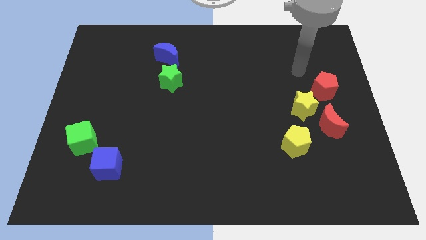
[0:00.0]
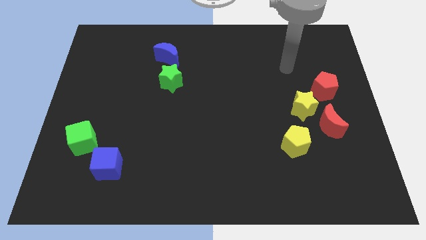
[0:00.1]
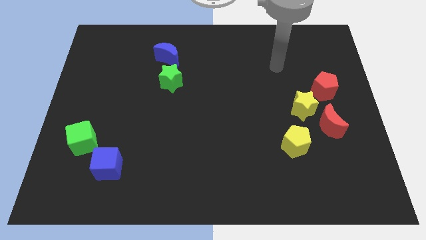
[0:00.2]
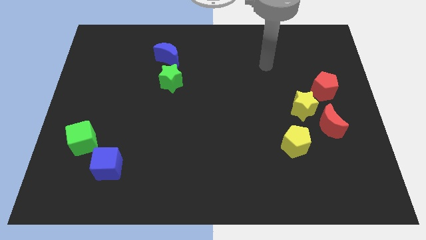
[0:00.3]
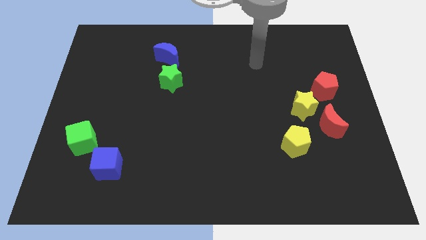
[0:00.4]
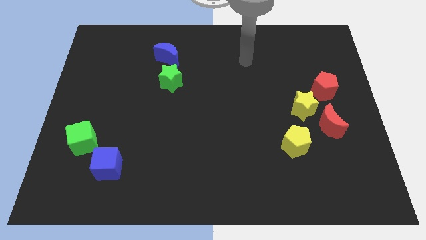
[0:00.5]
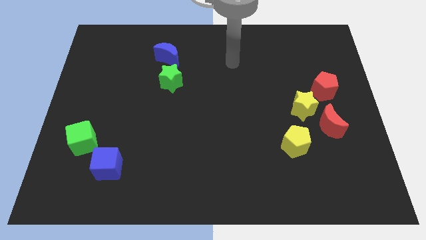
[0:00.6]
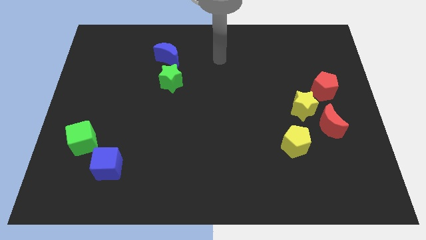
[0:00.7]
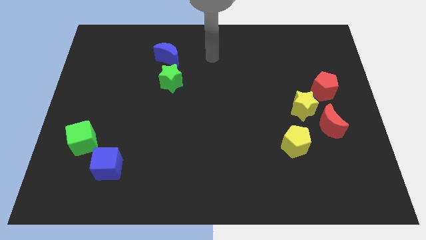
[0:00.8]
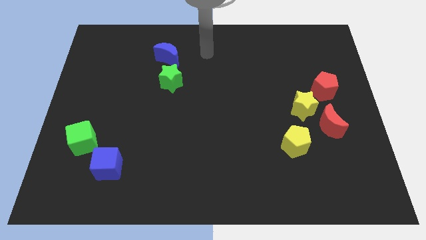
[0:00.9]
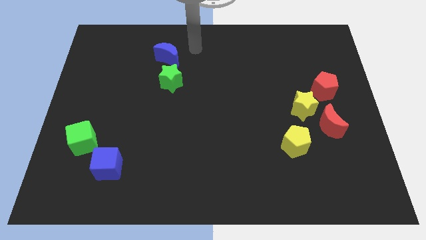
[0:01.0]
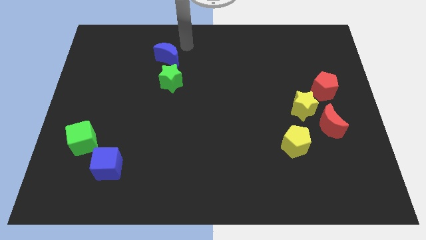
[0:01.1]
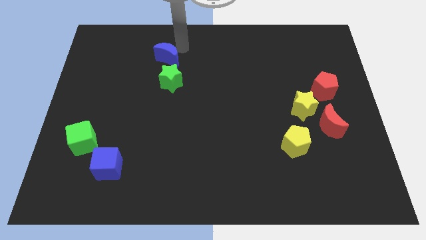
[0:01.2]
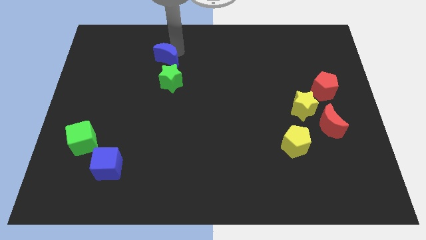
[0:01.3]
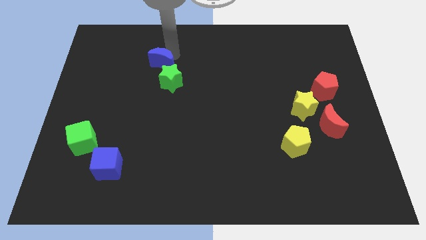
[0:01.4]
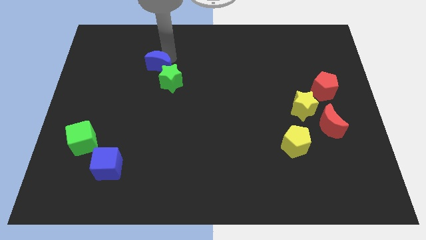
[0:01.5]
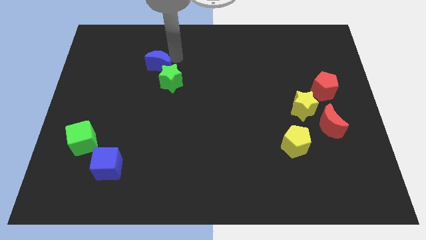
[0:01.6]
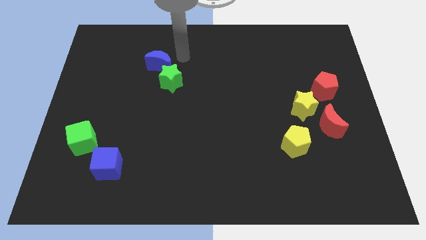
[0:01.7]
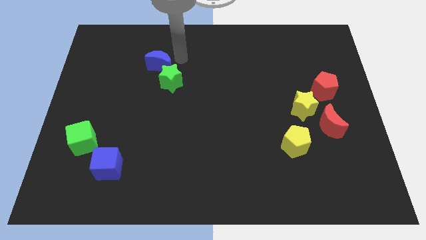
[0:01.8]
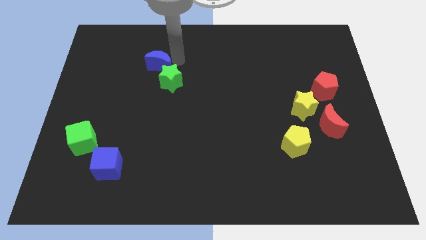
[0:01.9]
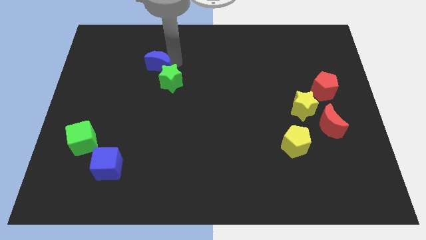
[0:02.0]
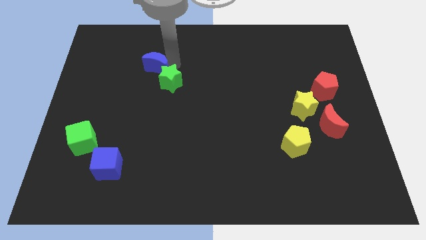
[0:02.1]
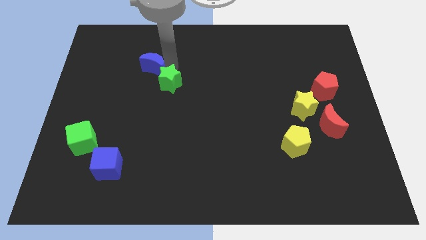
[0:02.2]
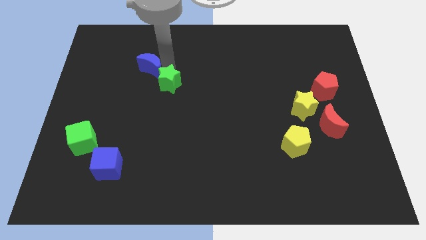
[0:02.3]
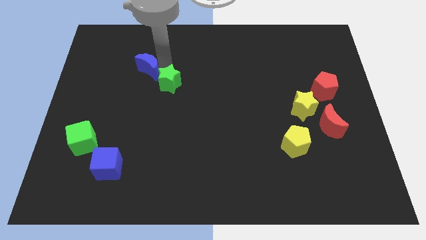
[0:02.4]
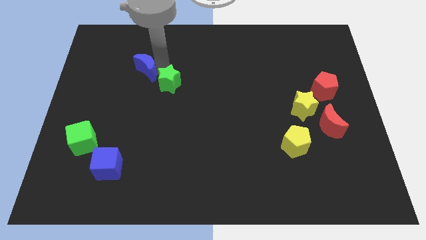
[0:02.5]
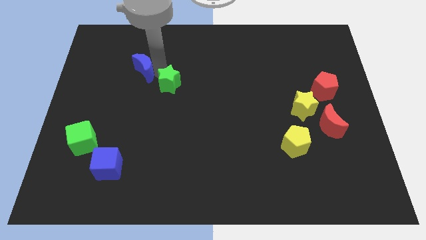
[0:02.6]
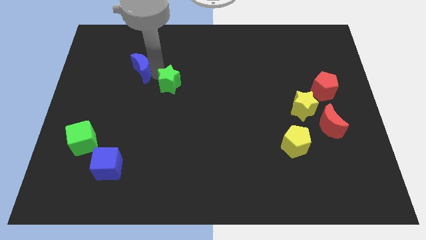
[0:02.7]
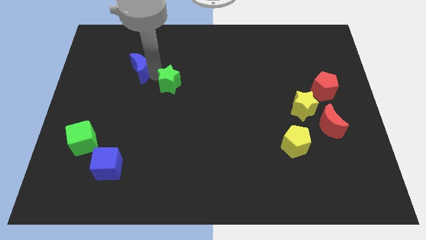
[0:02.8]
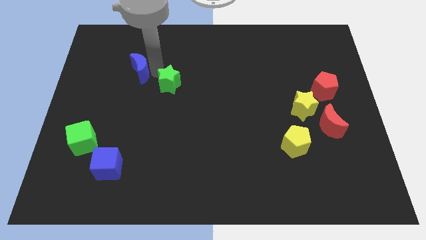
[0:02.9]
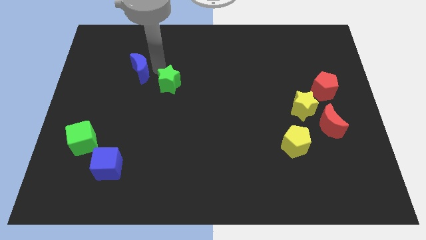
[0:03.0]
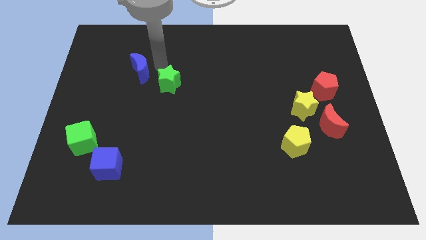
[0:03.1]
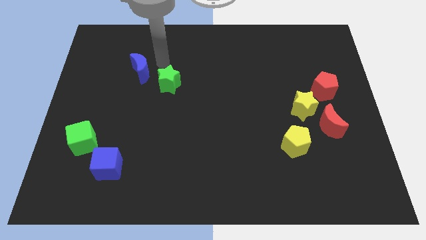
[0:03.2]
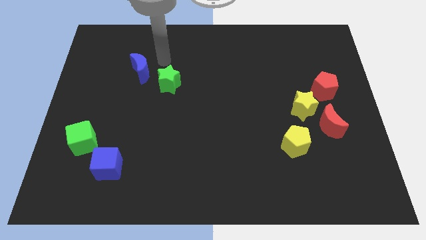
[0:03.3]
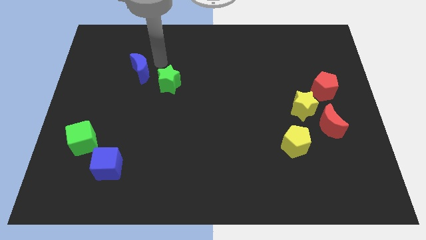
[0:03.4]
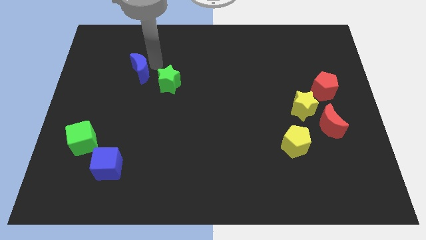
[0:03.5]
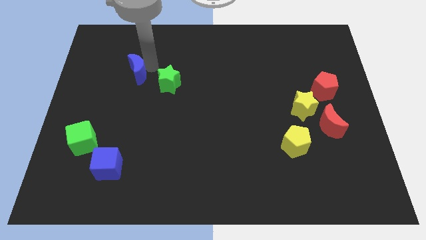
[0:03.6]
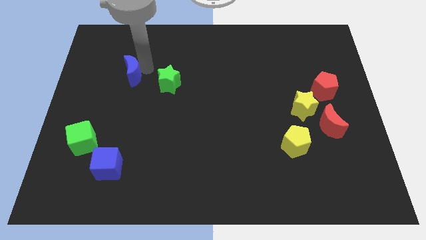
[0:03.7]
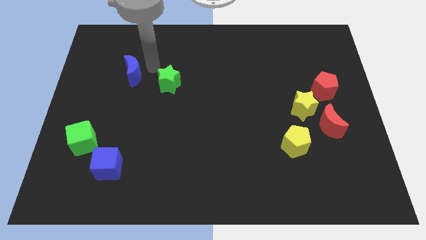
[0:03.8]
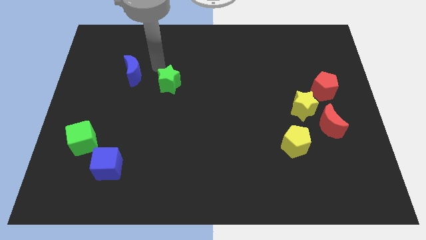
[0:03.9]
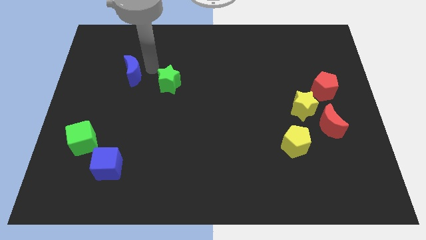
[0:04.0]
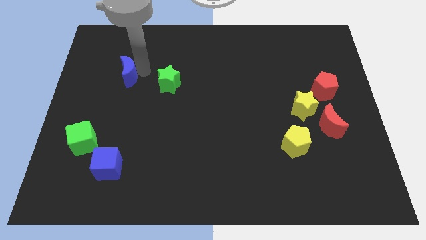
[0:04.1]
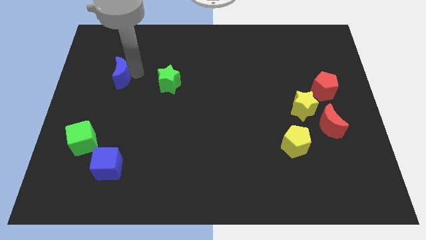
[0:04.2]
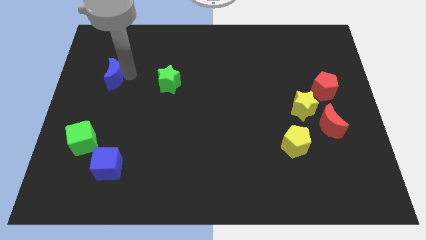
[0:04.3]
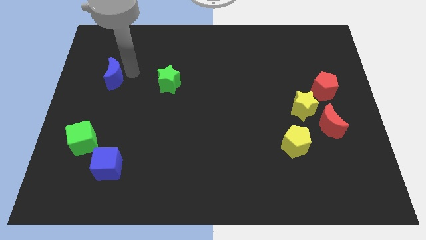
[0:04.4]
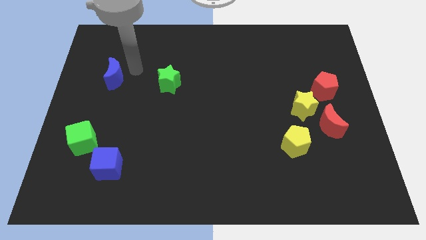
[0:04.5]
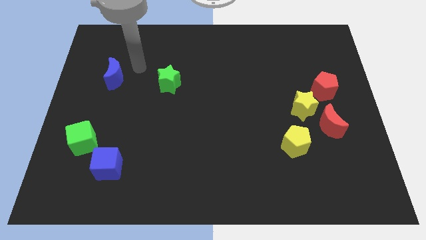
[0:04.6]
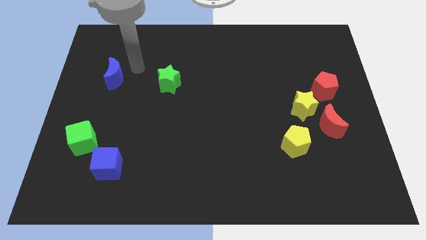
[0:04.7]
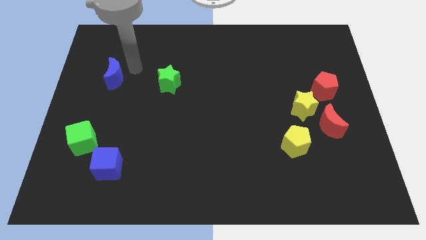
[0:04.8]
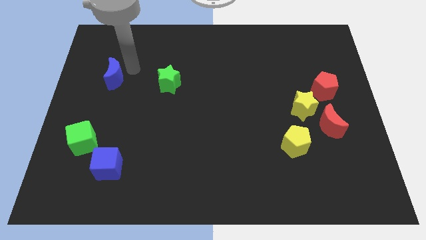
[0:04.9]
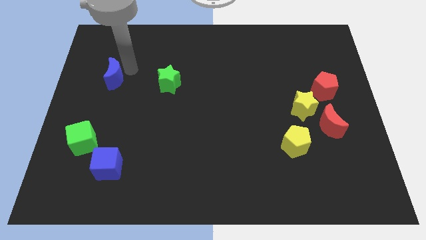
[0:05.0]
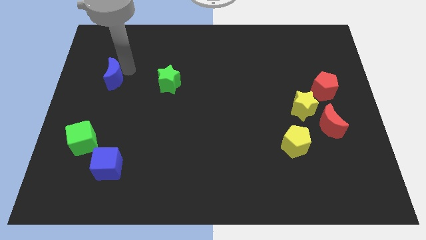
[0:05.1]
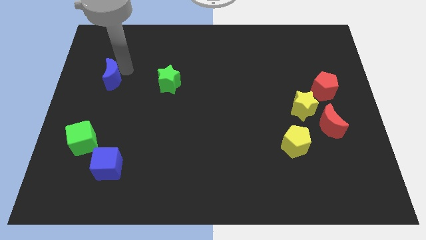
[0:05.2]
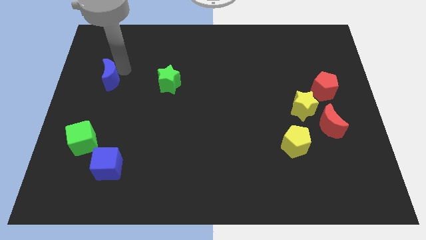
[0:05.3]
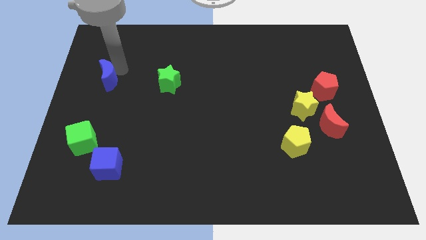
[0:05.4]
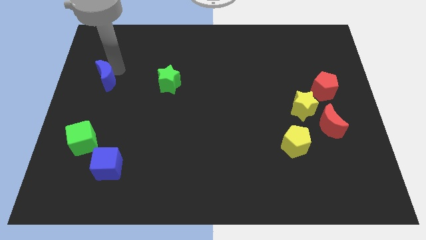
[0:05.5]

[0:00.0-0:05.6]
put the blue moon to the left side of the board

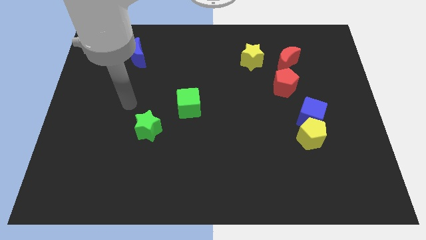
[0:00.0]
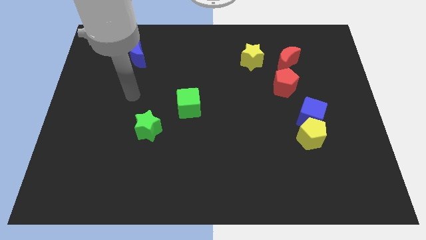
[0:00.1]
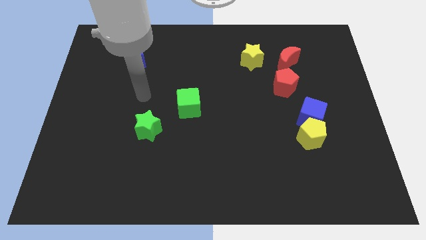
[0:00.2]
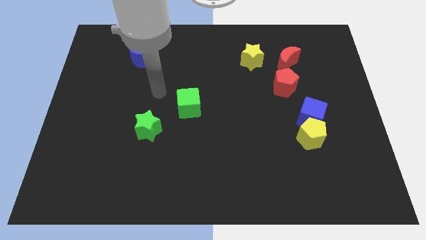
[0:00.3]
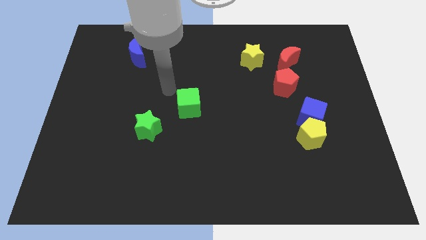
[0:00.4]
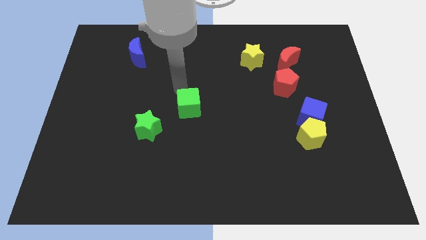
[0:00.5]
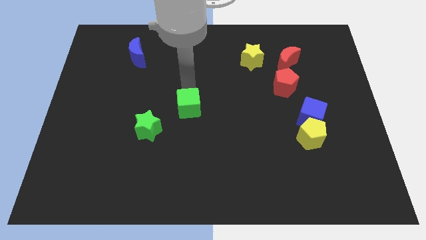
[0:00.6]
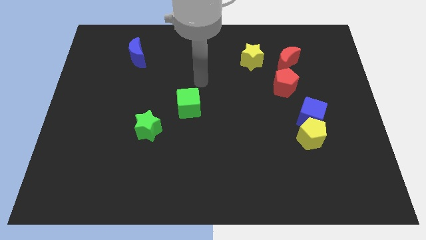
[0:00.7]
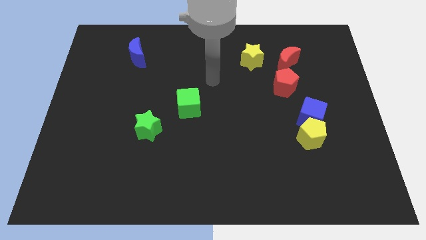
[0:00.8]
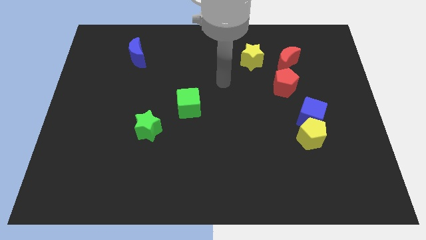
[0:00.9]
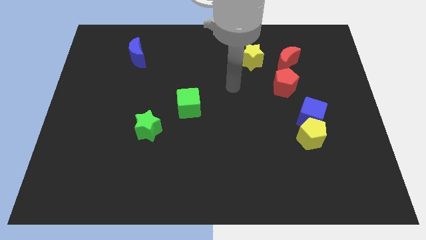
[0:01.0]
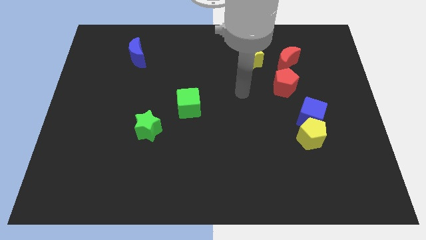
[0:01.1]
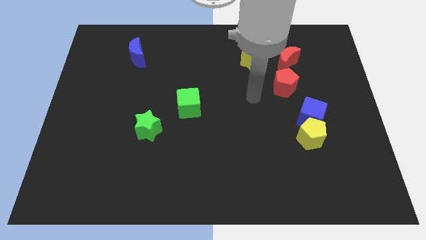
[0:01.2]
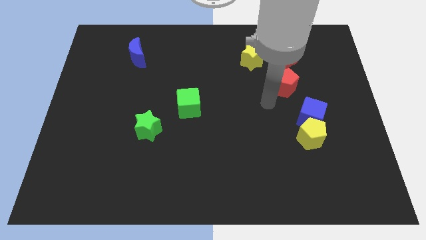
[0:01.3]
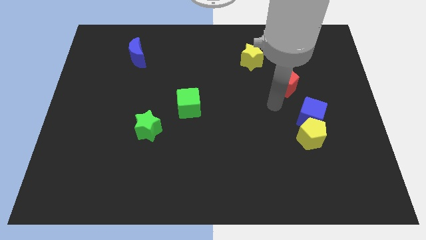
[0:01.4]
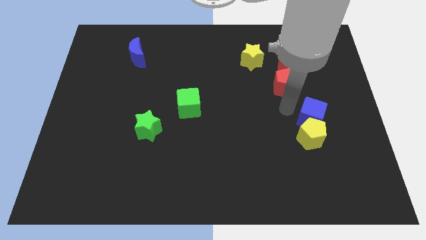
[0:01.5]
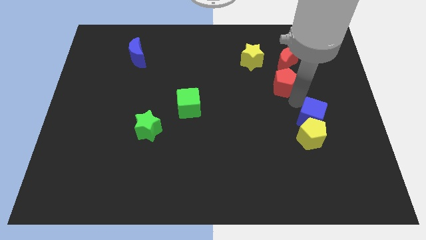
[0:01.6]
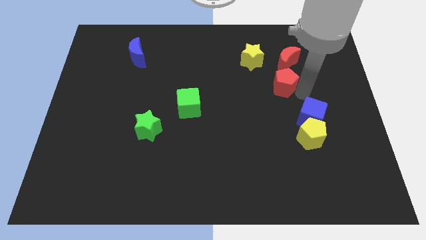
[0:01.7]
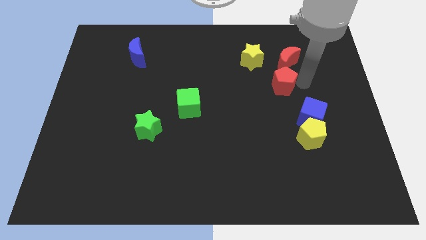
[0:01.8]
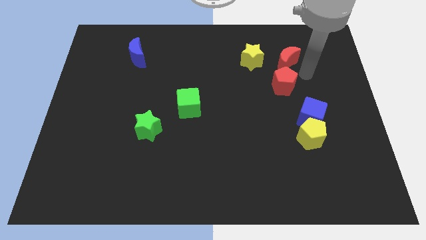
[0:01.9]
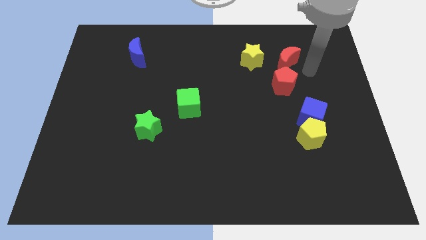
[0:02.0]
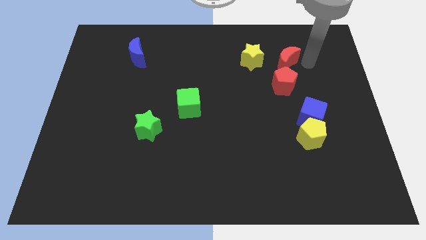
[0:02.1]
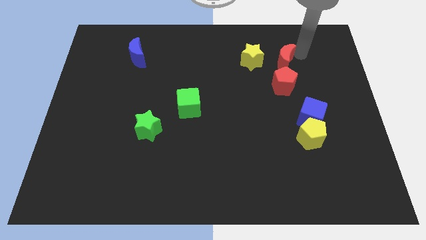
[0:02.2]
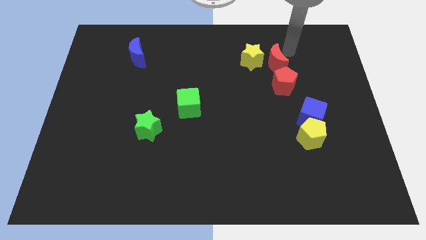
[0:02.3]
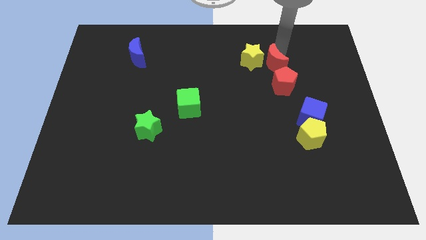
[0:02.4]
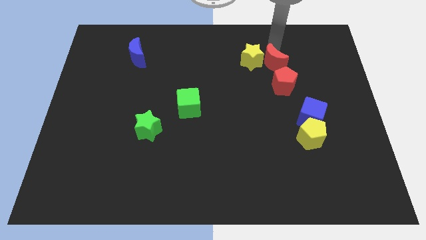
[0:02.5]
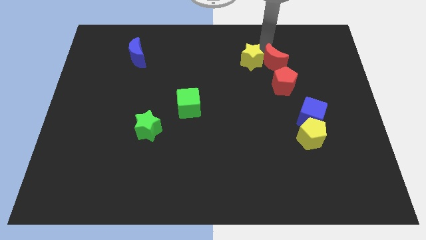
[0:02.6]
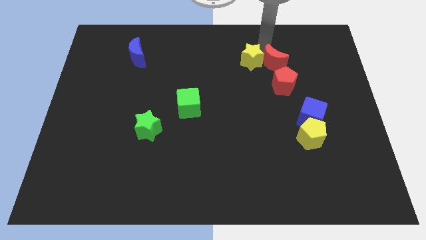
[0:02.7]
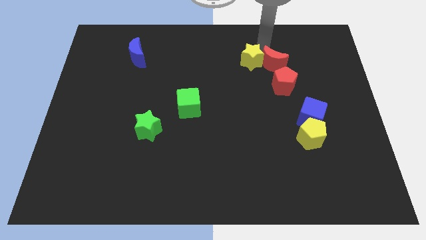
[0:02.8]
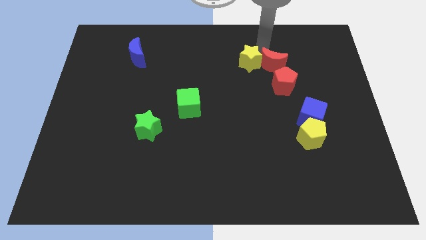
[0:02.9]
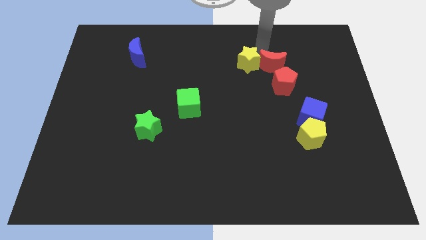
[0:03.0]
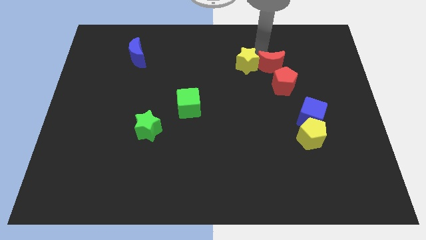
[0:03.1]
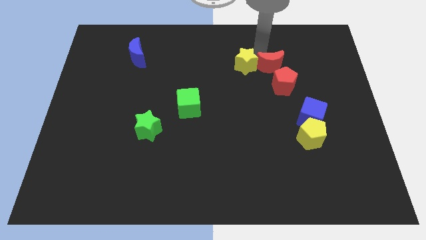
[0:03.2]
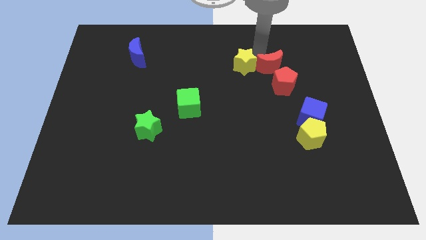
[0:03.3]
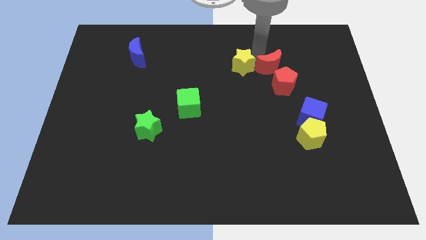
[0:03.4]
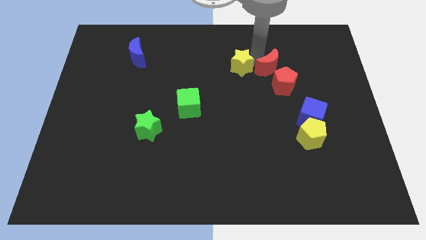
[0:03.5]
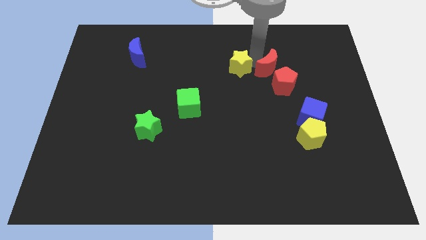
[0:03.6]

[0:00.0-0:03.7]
push the yellow star to the center
